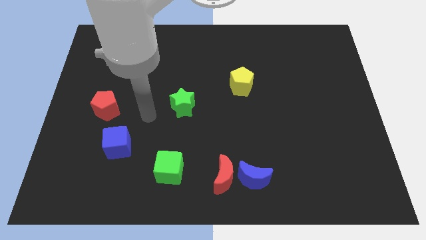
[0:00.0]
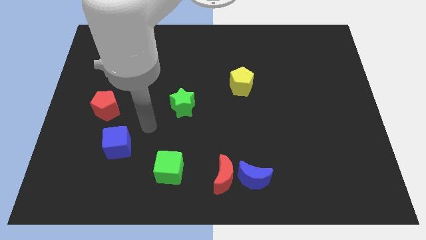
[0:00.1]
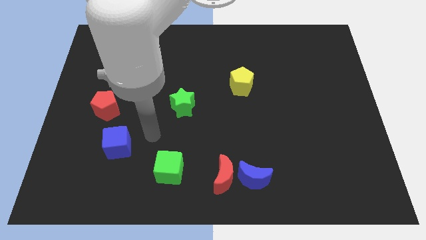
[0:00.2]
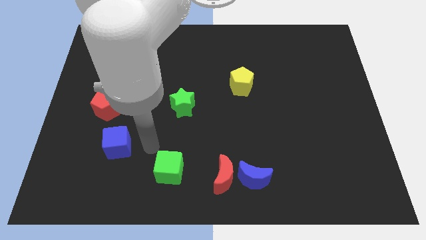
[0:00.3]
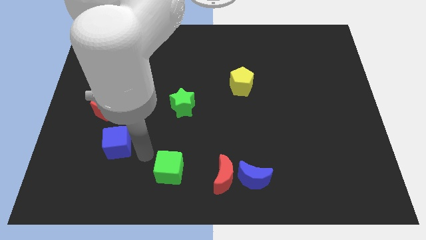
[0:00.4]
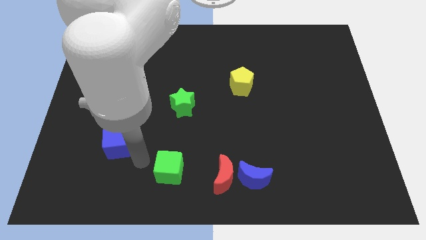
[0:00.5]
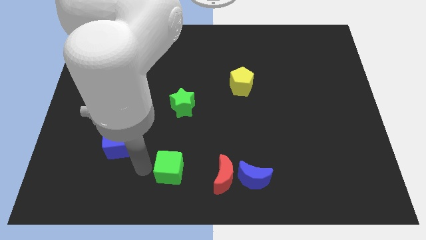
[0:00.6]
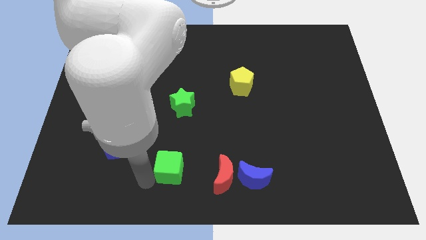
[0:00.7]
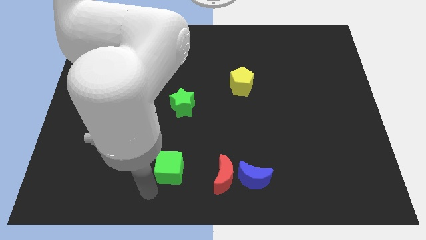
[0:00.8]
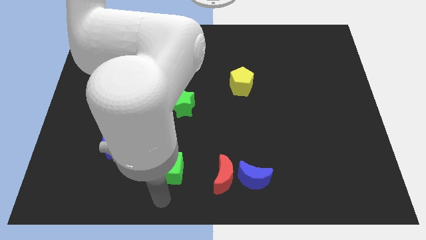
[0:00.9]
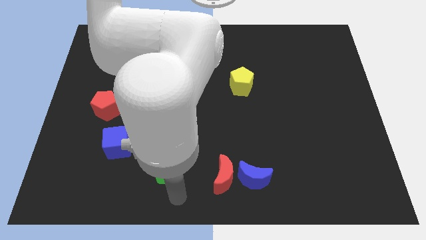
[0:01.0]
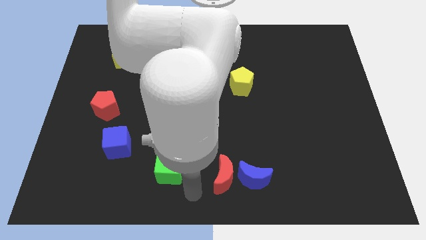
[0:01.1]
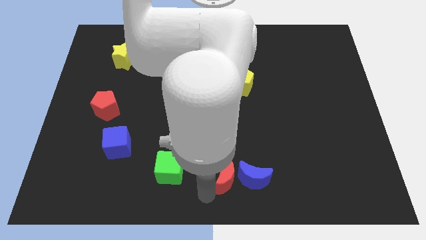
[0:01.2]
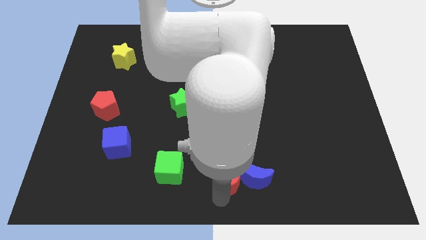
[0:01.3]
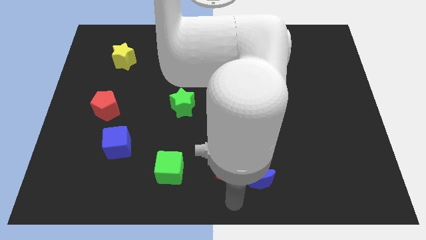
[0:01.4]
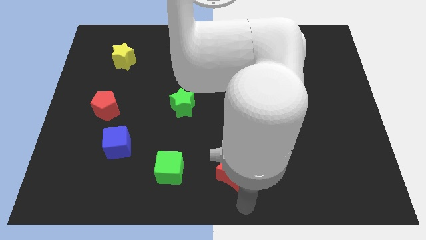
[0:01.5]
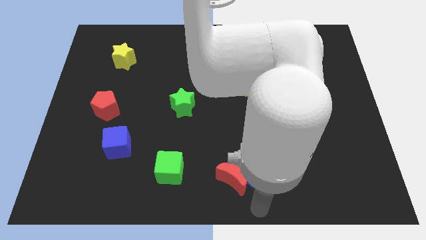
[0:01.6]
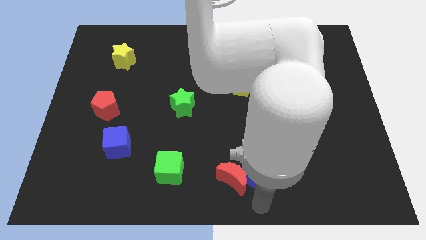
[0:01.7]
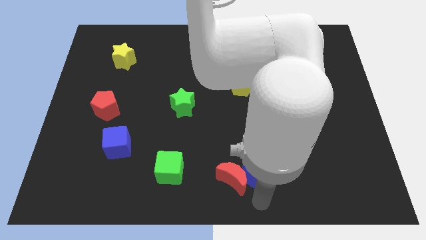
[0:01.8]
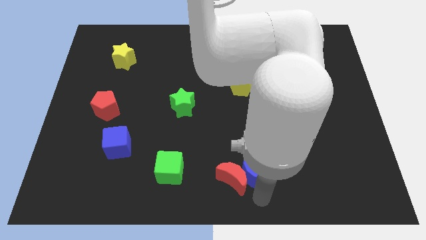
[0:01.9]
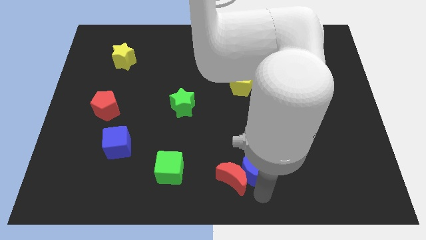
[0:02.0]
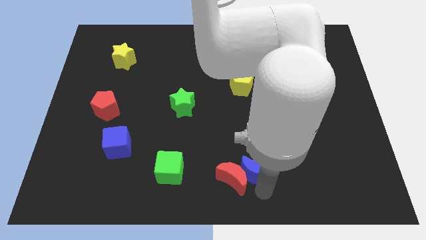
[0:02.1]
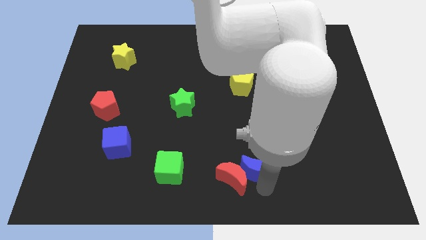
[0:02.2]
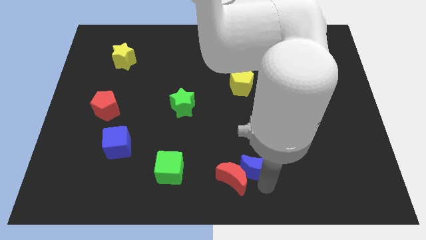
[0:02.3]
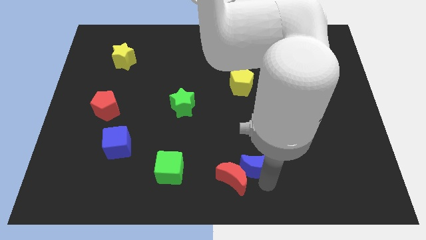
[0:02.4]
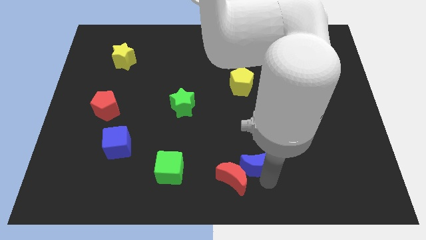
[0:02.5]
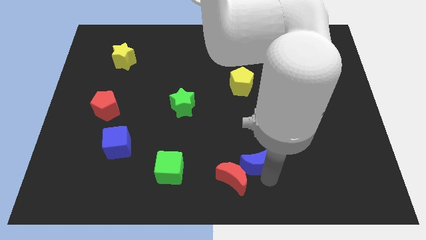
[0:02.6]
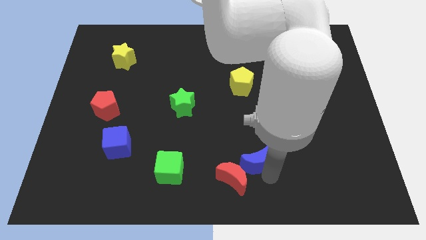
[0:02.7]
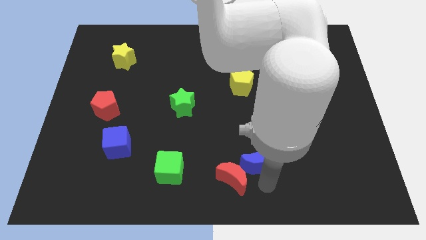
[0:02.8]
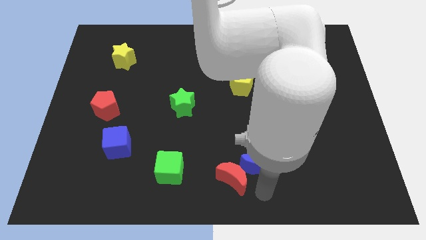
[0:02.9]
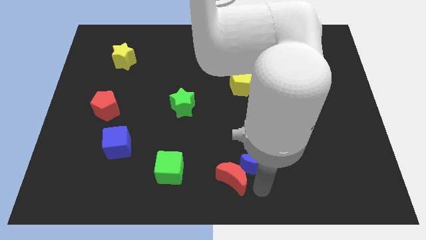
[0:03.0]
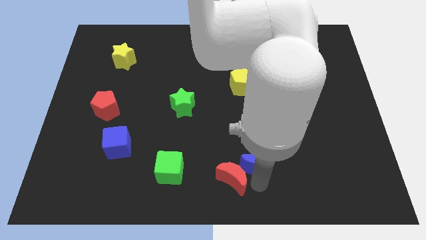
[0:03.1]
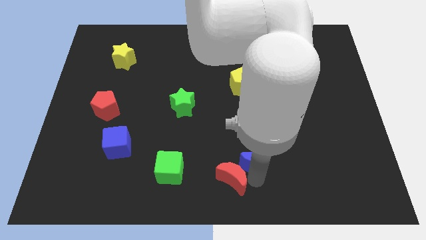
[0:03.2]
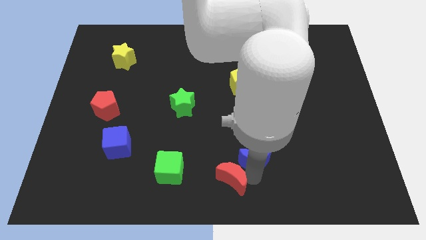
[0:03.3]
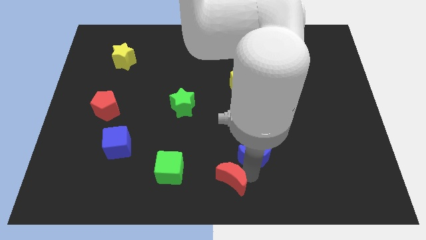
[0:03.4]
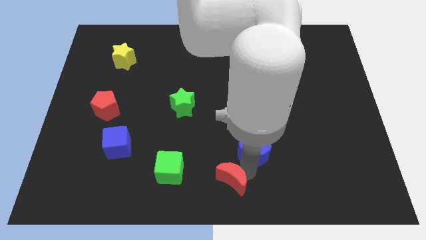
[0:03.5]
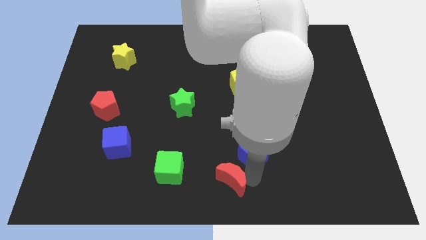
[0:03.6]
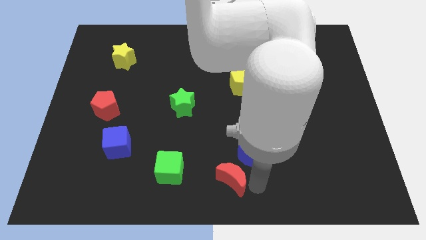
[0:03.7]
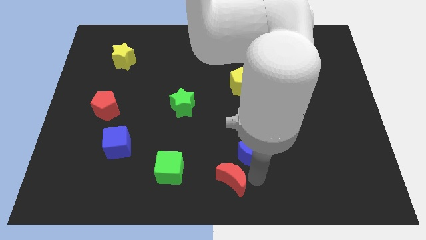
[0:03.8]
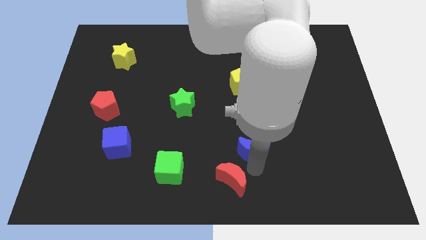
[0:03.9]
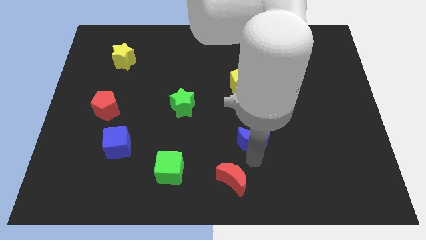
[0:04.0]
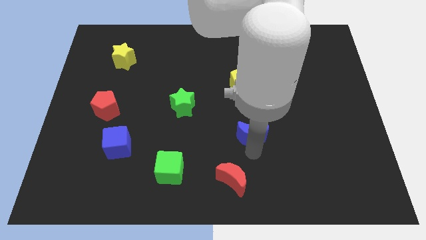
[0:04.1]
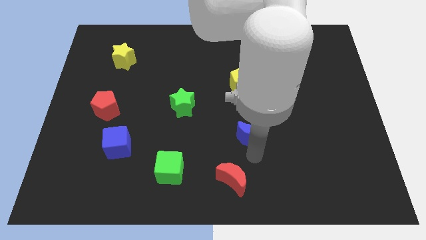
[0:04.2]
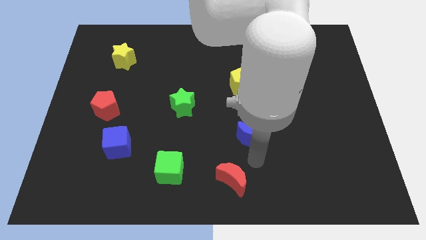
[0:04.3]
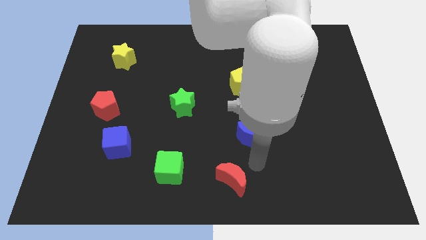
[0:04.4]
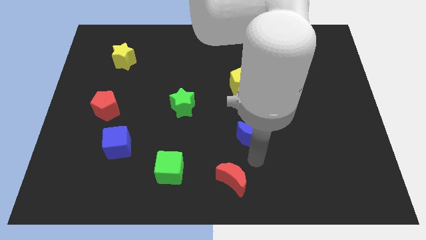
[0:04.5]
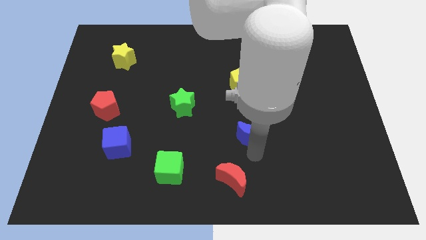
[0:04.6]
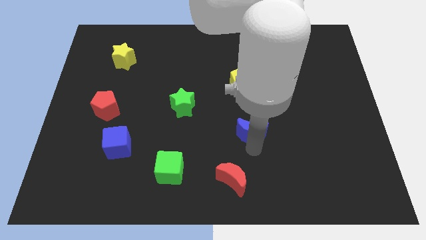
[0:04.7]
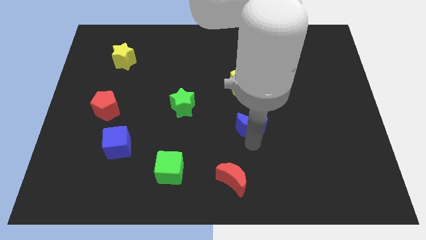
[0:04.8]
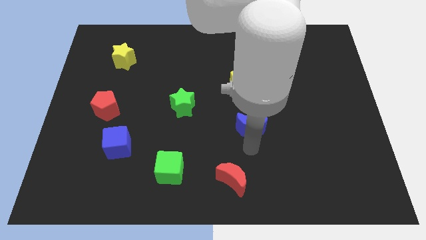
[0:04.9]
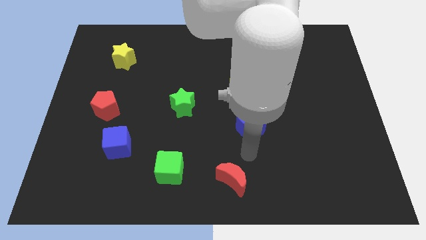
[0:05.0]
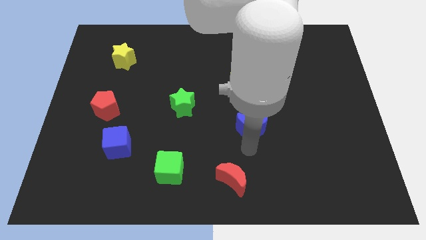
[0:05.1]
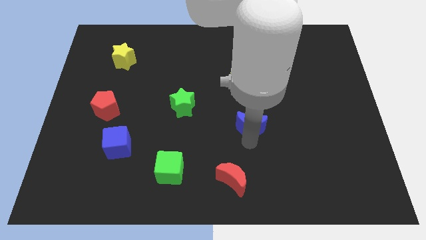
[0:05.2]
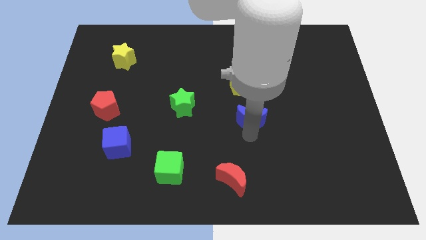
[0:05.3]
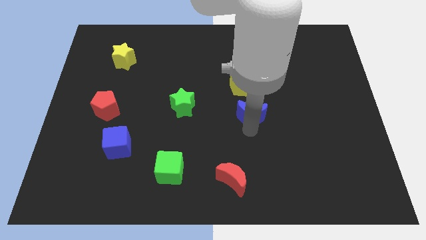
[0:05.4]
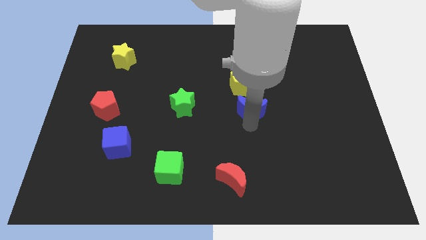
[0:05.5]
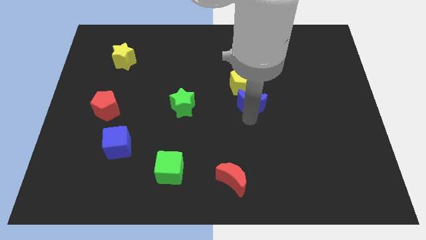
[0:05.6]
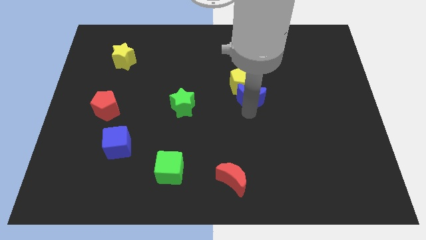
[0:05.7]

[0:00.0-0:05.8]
slide the blue moon upwards

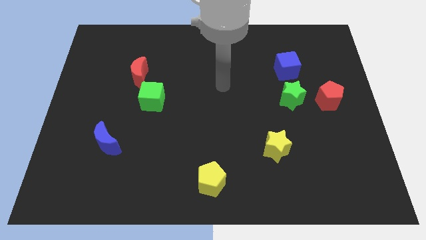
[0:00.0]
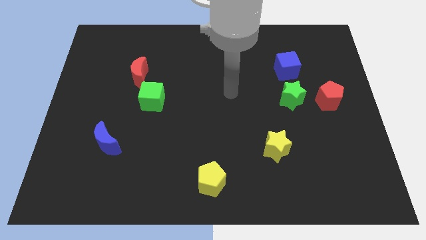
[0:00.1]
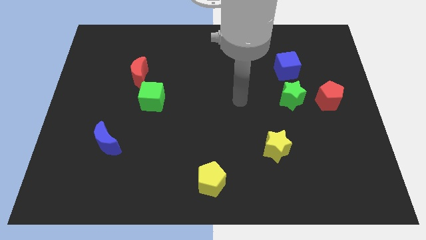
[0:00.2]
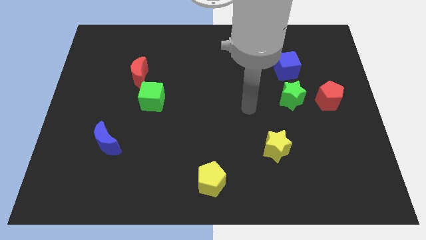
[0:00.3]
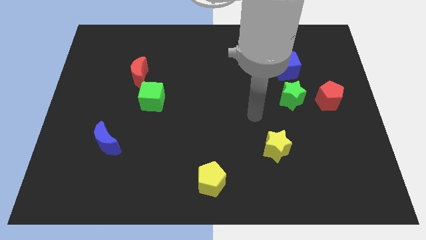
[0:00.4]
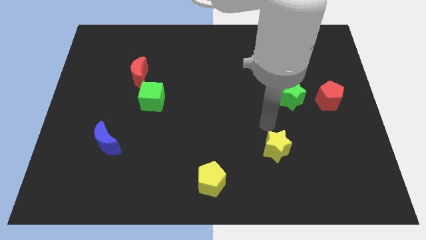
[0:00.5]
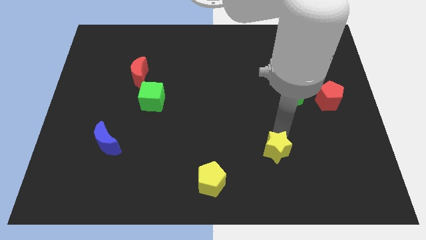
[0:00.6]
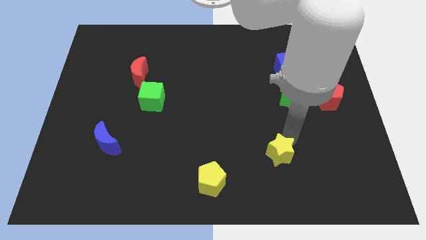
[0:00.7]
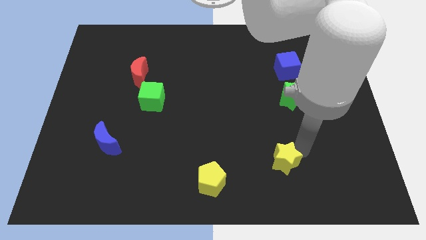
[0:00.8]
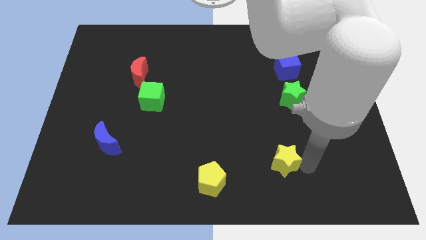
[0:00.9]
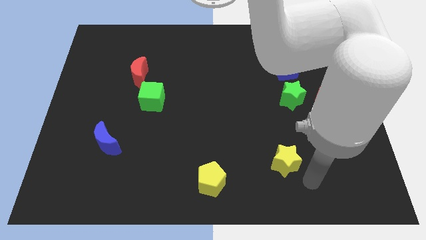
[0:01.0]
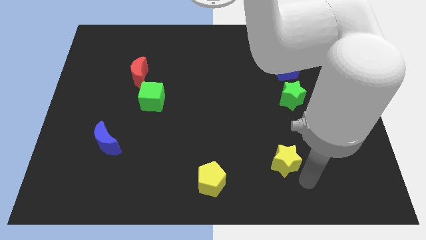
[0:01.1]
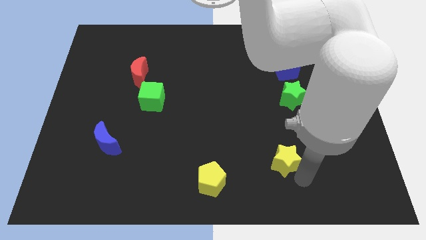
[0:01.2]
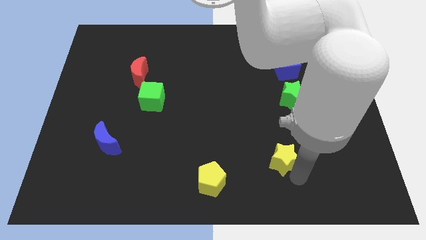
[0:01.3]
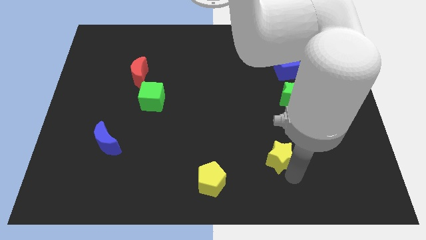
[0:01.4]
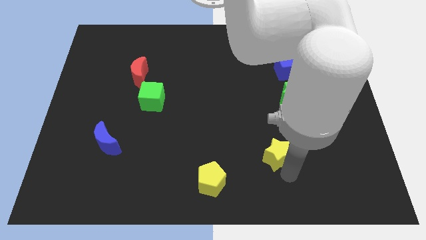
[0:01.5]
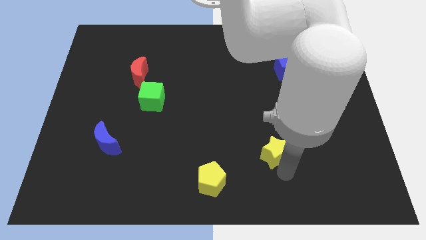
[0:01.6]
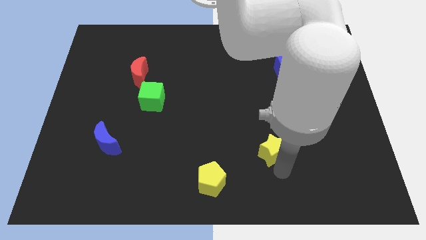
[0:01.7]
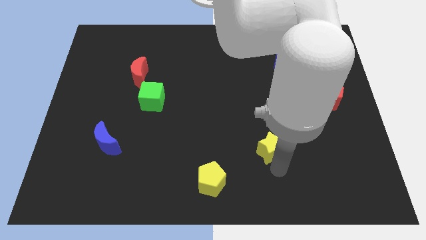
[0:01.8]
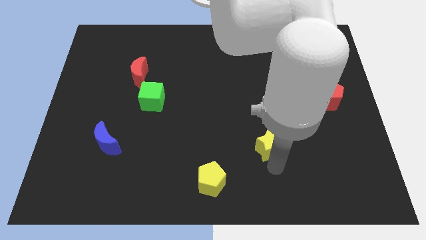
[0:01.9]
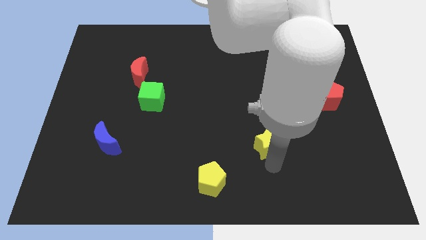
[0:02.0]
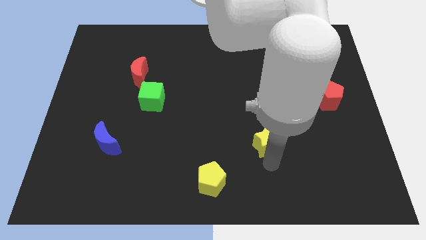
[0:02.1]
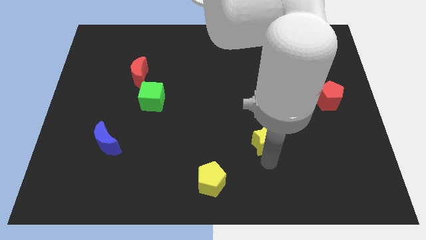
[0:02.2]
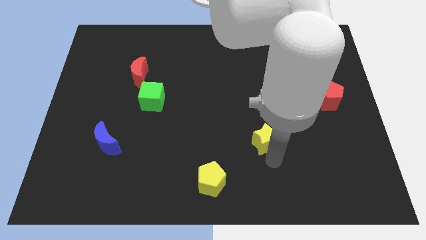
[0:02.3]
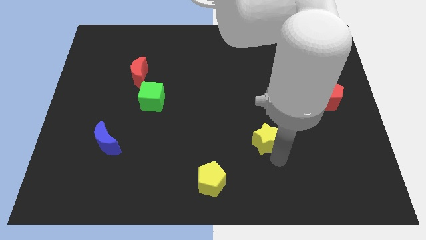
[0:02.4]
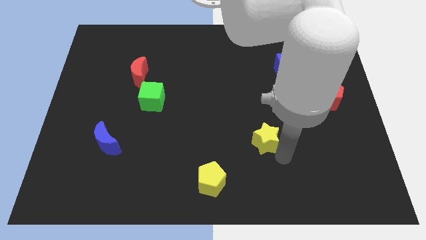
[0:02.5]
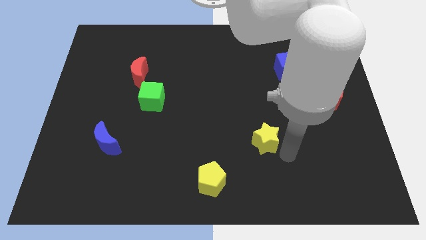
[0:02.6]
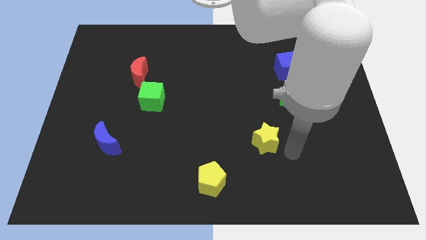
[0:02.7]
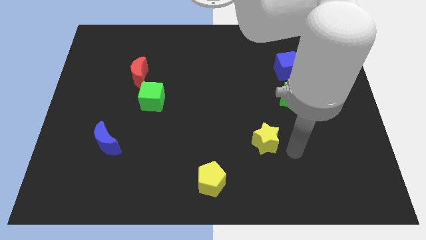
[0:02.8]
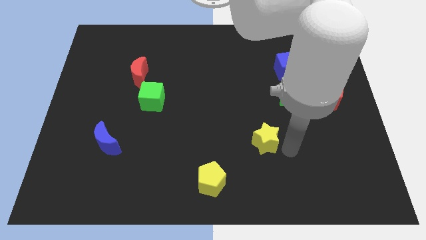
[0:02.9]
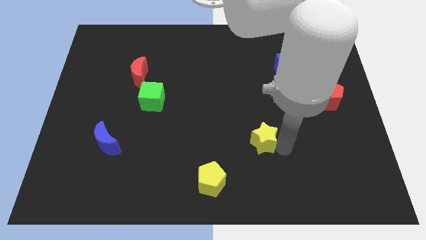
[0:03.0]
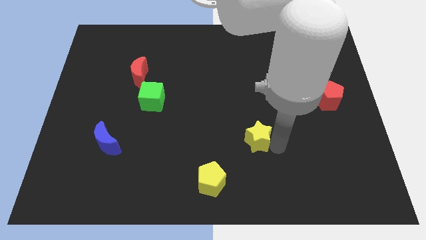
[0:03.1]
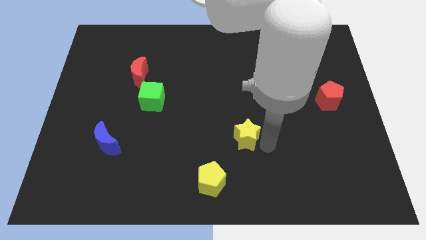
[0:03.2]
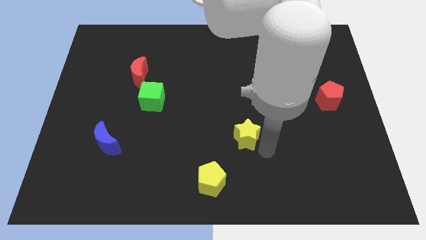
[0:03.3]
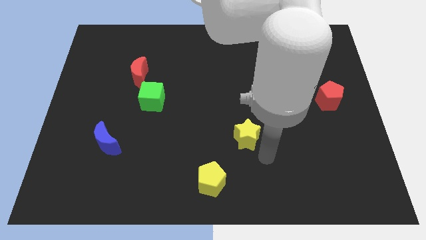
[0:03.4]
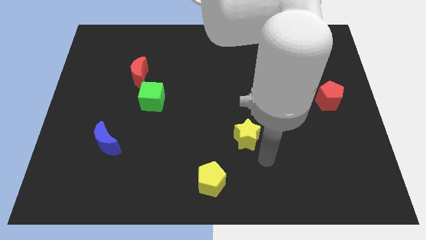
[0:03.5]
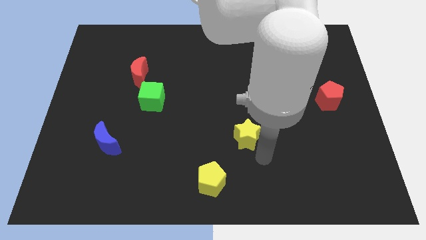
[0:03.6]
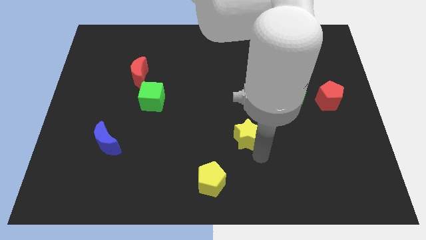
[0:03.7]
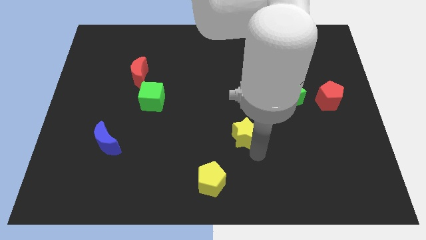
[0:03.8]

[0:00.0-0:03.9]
push the yellow star upwards and then to the left a little bit
